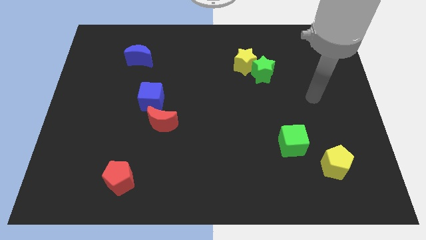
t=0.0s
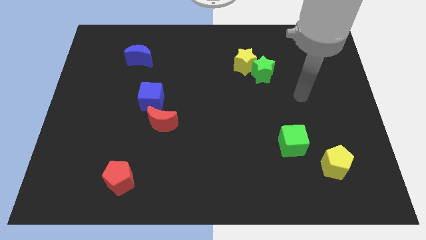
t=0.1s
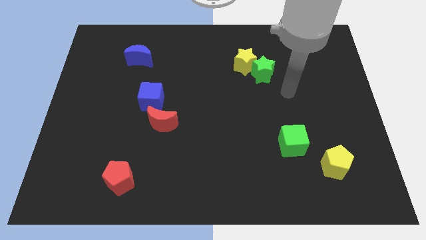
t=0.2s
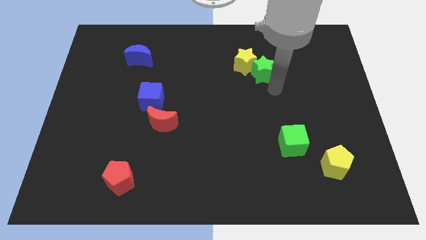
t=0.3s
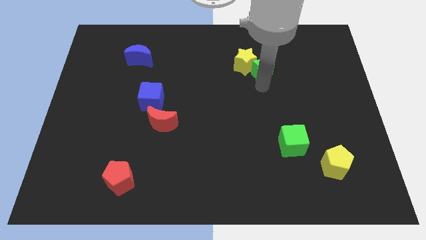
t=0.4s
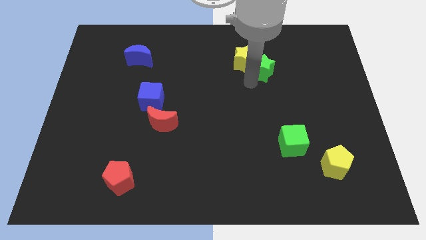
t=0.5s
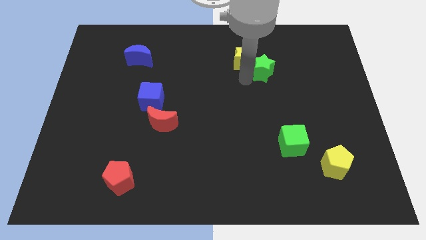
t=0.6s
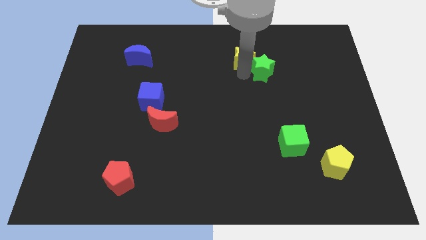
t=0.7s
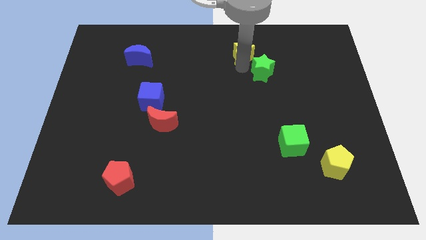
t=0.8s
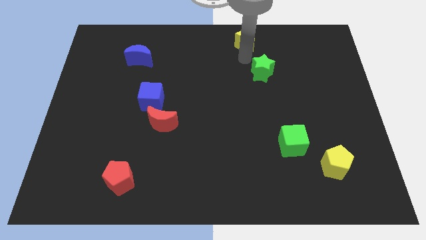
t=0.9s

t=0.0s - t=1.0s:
separate the green star from the yellow star

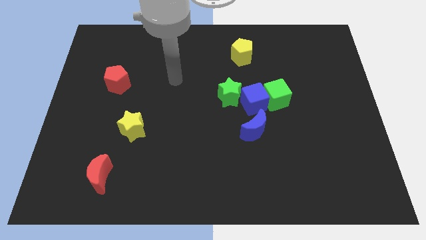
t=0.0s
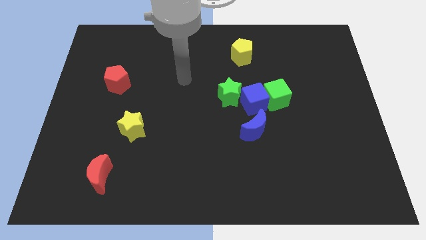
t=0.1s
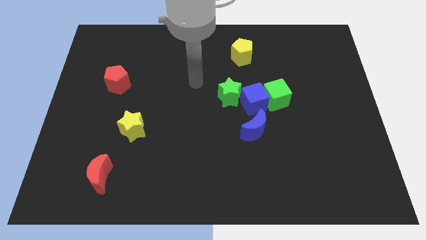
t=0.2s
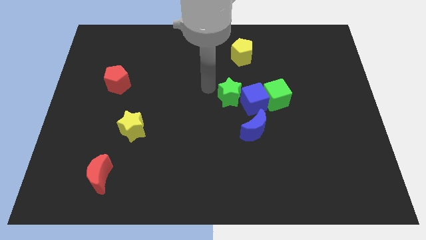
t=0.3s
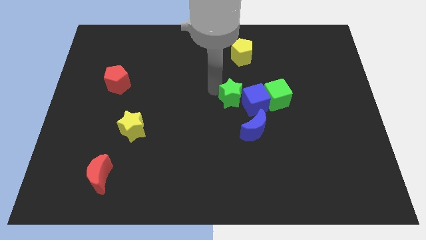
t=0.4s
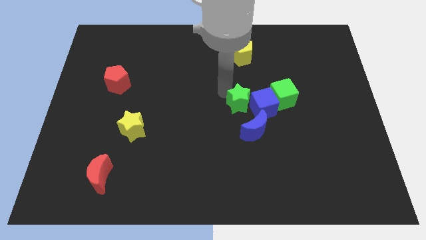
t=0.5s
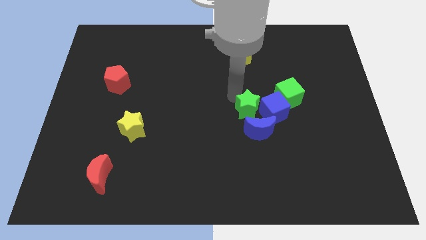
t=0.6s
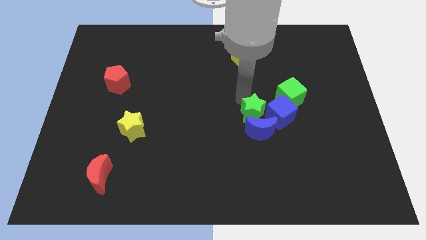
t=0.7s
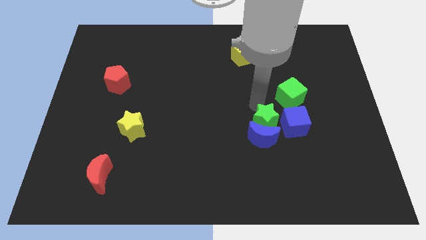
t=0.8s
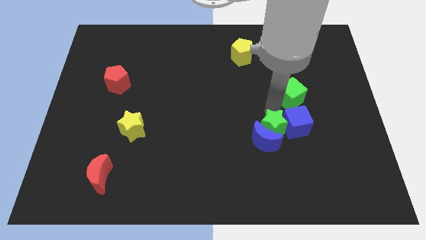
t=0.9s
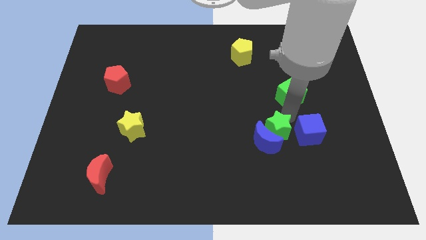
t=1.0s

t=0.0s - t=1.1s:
pull the green cube apart from the blue cube

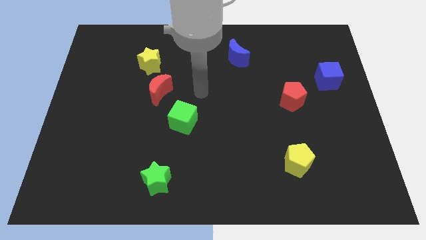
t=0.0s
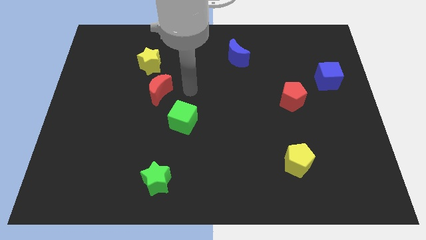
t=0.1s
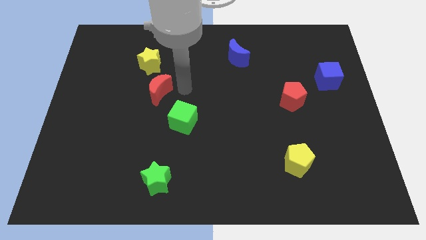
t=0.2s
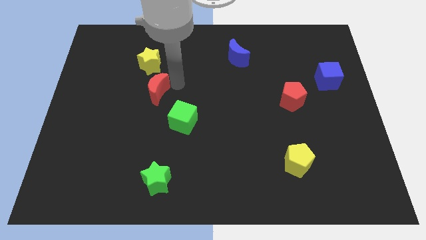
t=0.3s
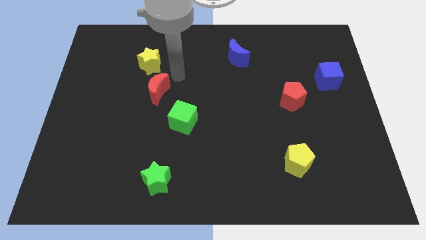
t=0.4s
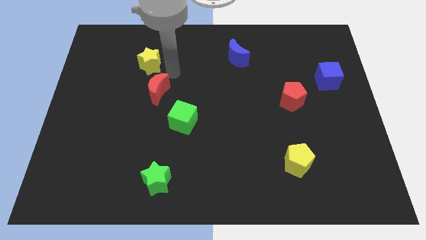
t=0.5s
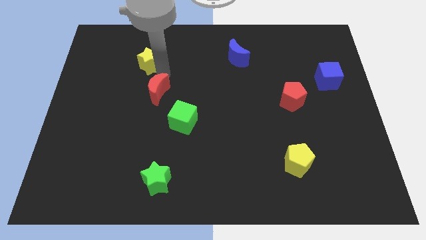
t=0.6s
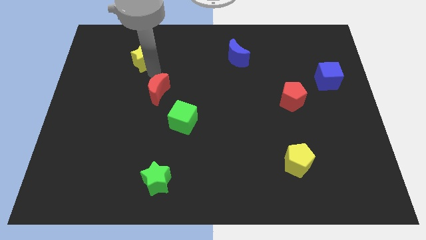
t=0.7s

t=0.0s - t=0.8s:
pull the red moon apart from the yellow star

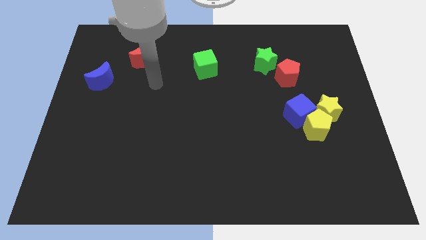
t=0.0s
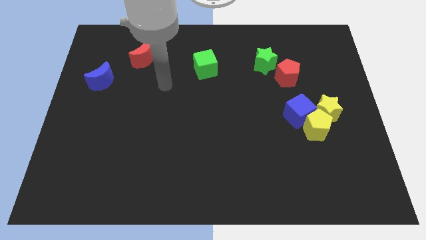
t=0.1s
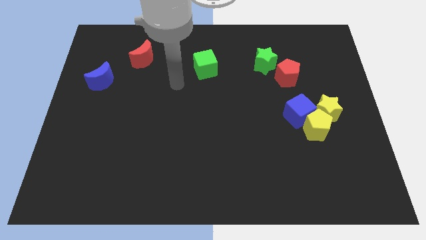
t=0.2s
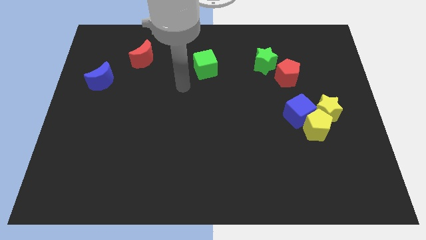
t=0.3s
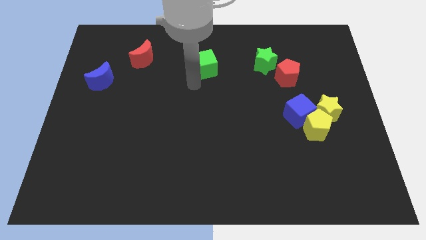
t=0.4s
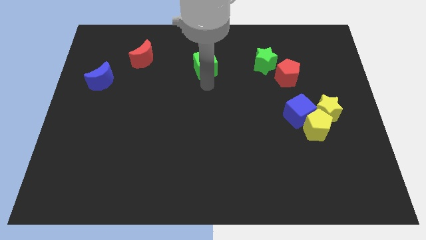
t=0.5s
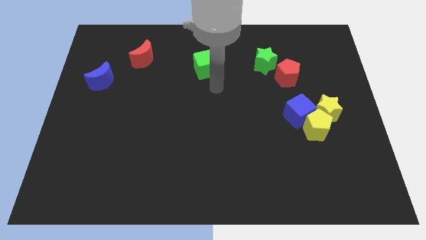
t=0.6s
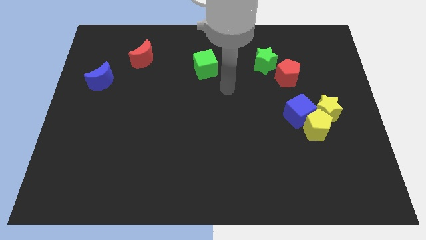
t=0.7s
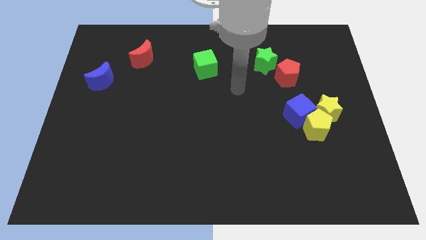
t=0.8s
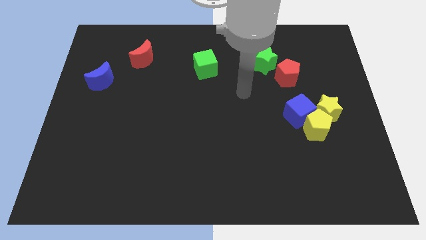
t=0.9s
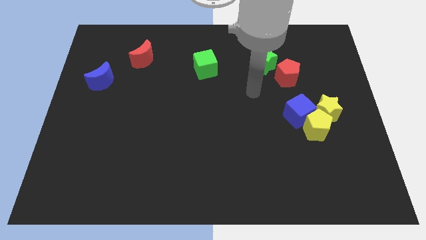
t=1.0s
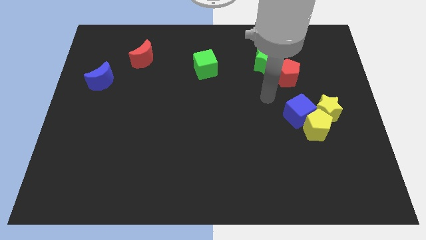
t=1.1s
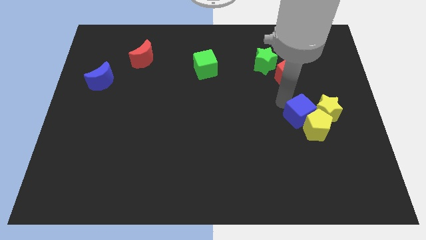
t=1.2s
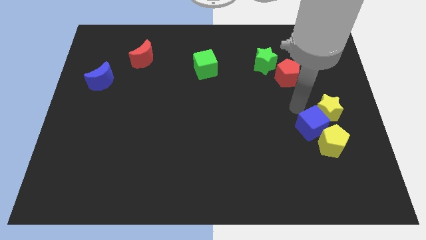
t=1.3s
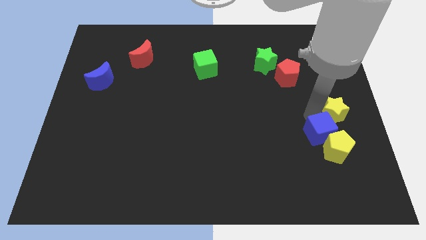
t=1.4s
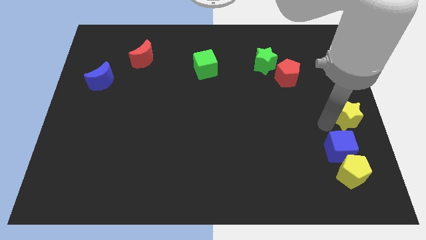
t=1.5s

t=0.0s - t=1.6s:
pull the yellow pentagon apart from the blue cube and yellow star

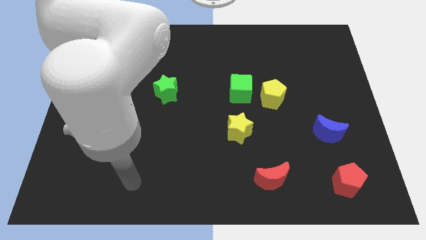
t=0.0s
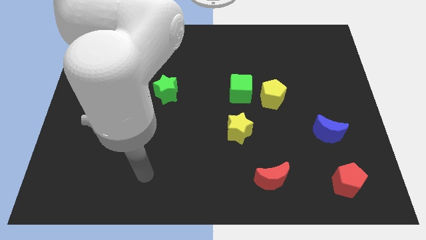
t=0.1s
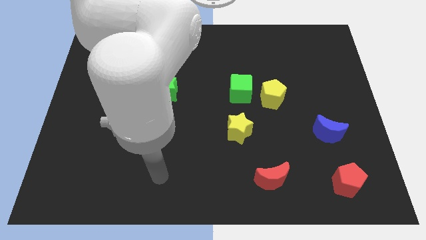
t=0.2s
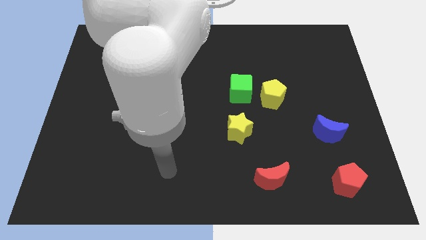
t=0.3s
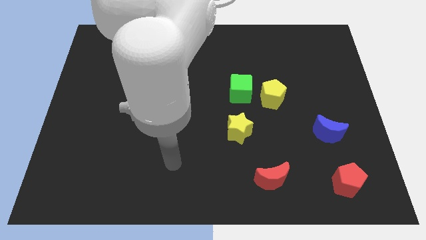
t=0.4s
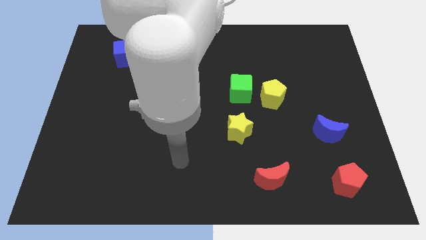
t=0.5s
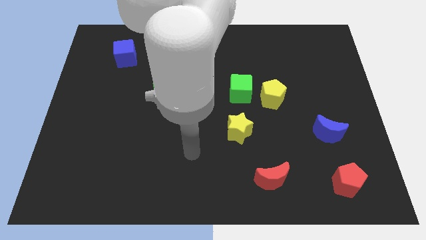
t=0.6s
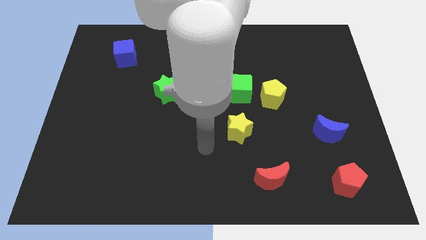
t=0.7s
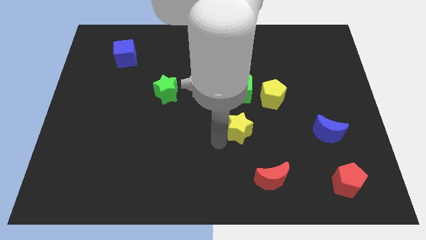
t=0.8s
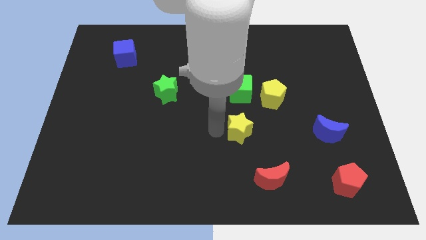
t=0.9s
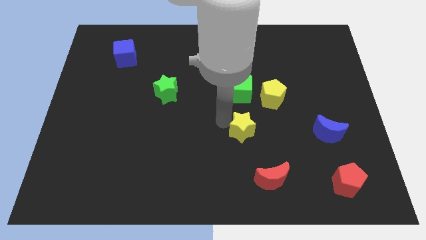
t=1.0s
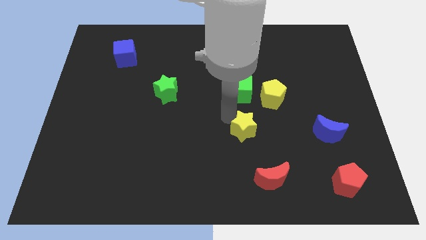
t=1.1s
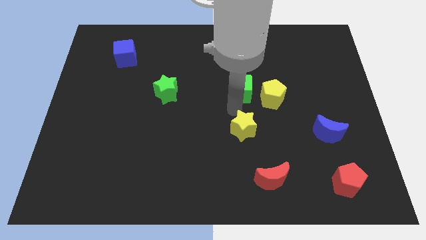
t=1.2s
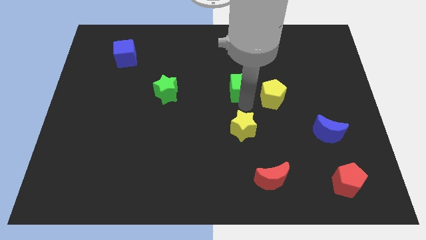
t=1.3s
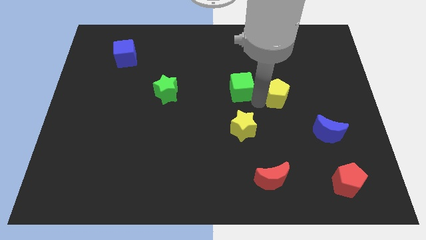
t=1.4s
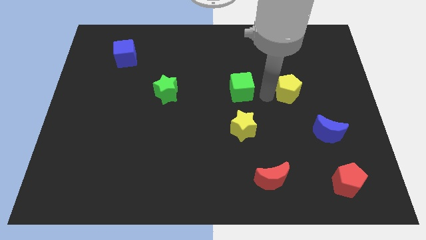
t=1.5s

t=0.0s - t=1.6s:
move the green cube away from the yellow pentagon

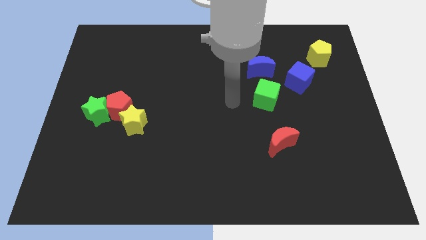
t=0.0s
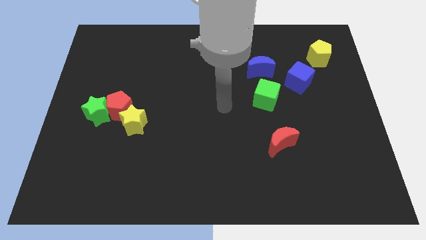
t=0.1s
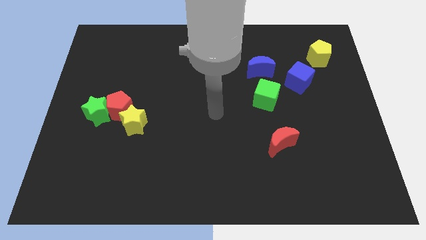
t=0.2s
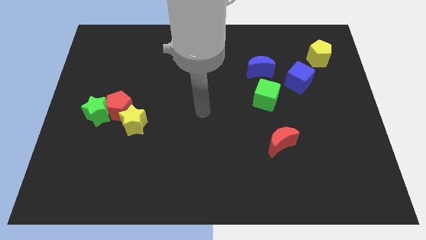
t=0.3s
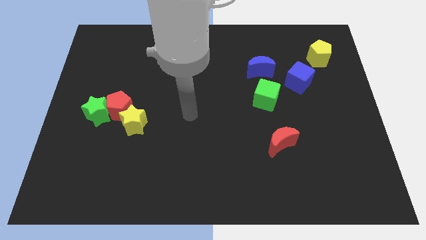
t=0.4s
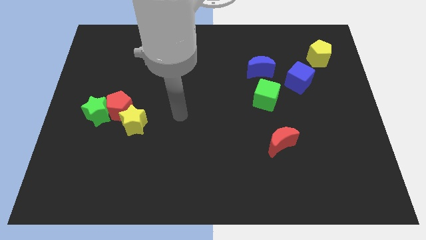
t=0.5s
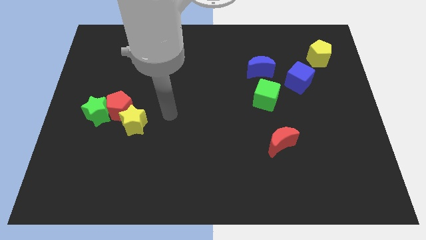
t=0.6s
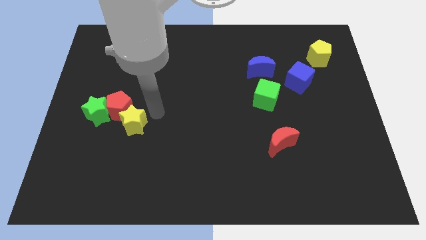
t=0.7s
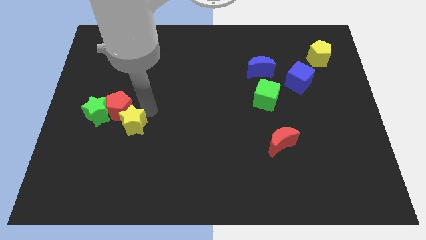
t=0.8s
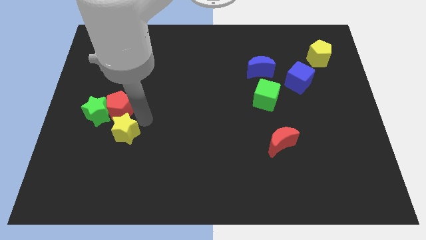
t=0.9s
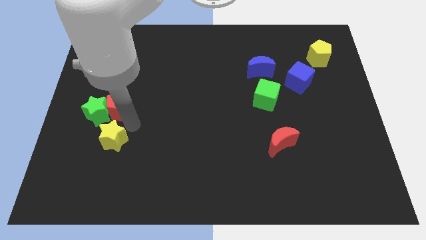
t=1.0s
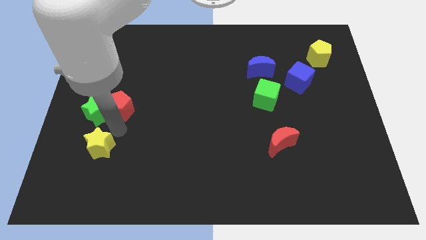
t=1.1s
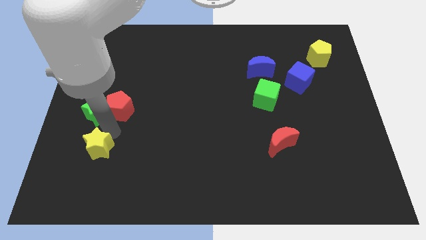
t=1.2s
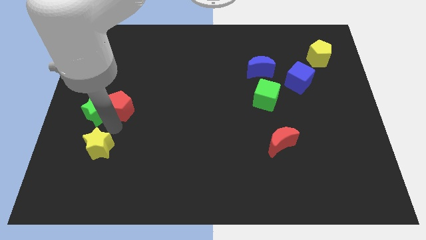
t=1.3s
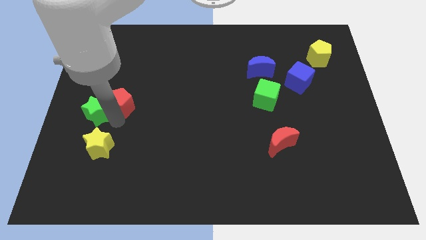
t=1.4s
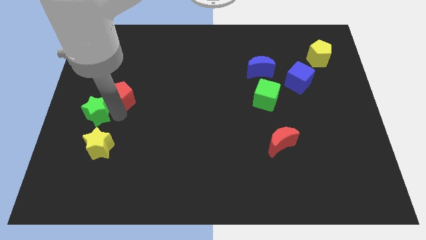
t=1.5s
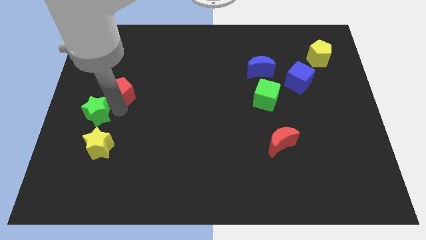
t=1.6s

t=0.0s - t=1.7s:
separate the red pentagon from the green star and yellow star

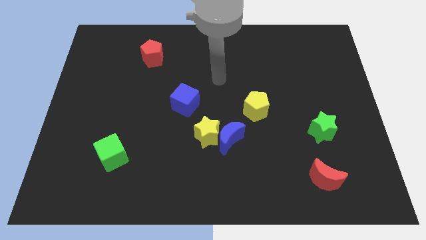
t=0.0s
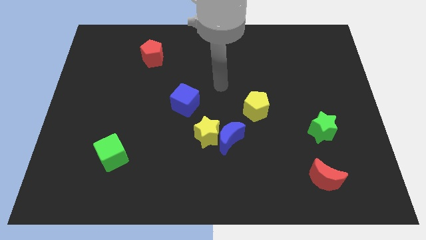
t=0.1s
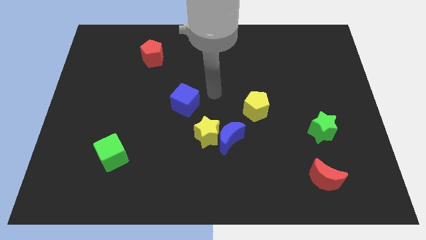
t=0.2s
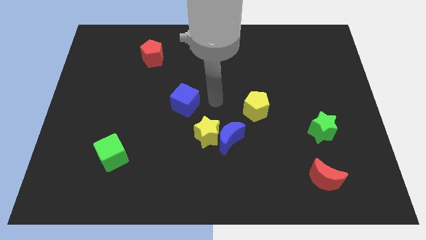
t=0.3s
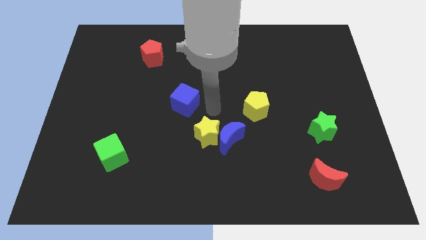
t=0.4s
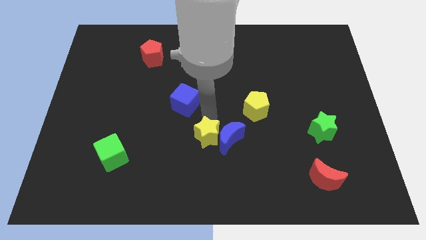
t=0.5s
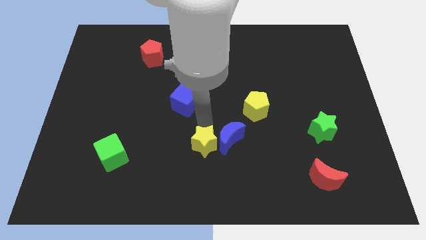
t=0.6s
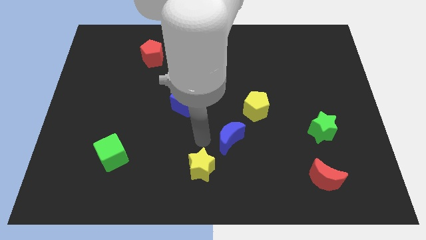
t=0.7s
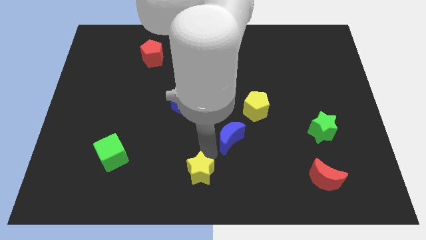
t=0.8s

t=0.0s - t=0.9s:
separate the blue moon from the yellow star

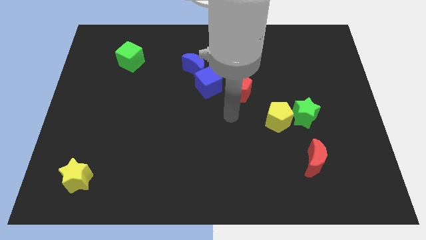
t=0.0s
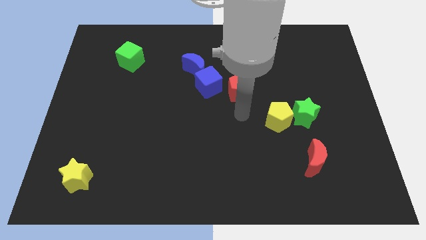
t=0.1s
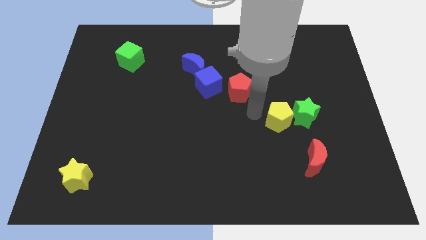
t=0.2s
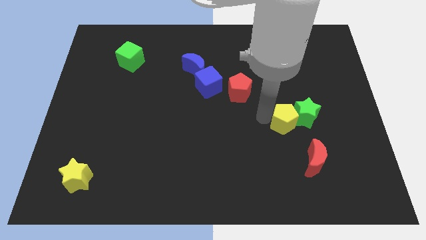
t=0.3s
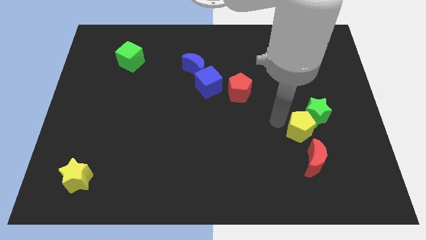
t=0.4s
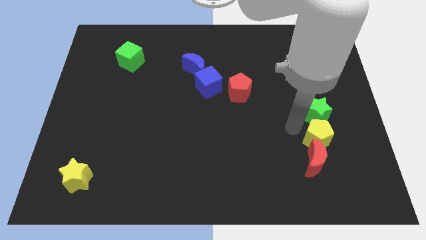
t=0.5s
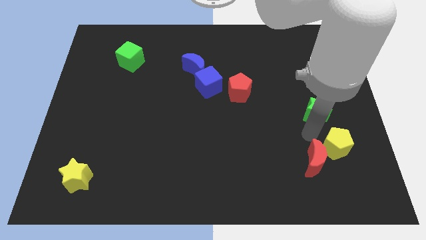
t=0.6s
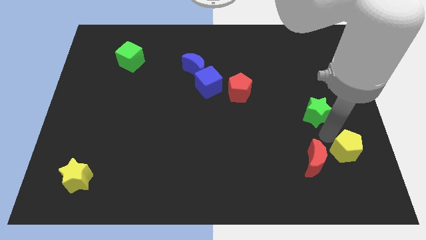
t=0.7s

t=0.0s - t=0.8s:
move the green star away from the yellow pentagon
